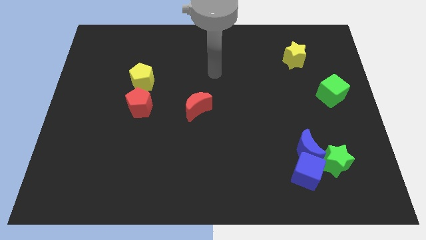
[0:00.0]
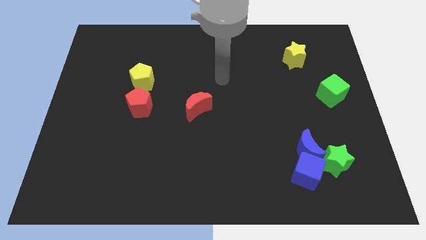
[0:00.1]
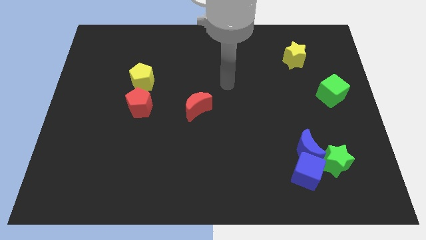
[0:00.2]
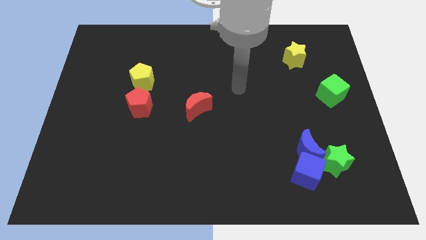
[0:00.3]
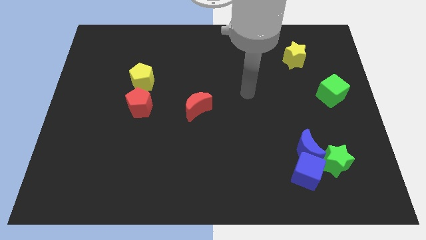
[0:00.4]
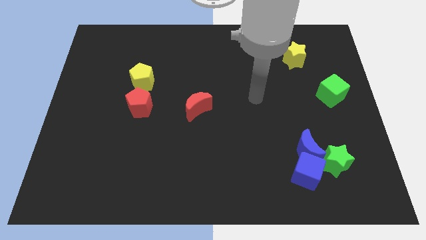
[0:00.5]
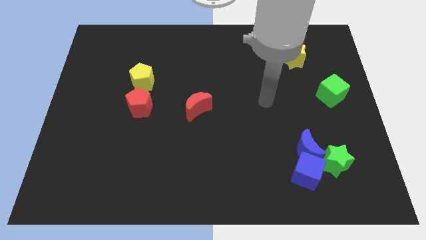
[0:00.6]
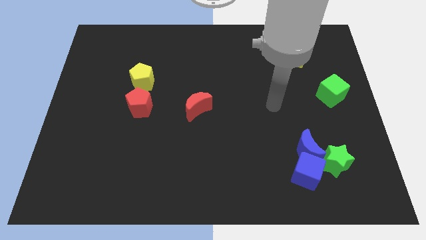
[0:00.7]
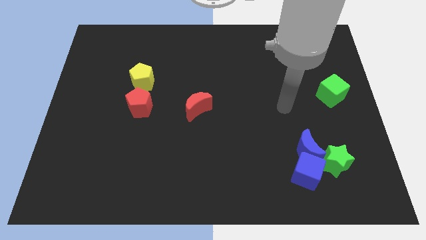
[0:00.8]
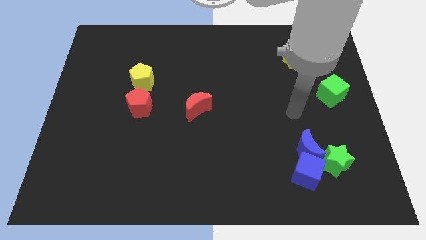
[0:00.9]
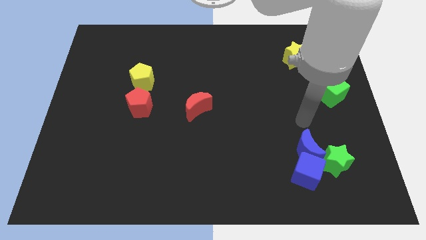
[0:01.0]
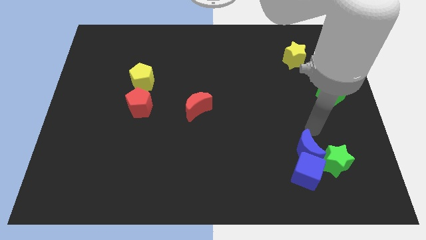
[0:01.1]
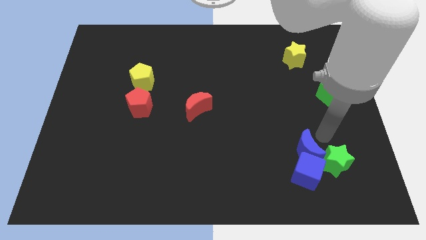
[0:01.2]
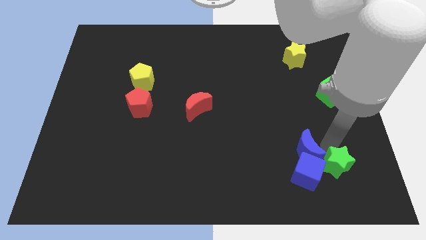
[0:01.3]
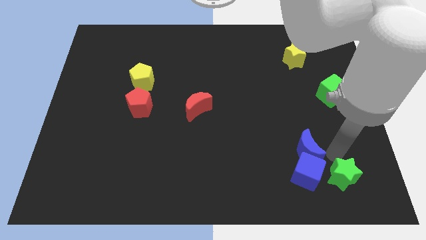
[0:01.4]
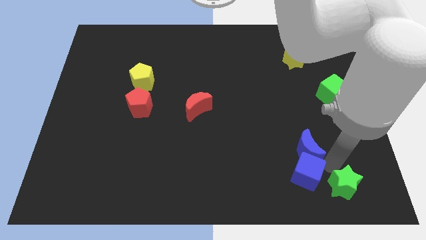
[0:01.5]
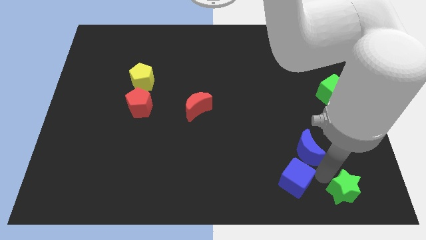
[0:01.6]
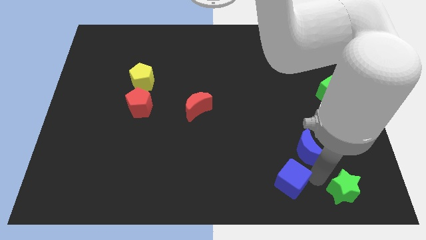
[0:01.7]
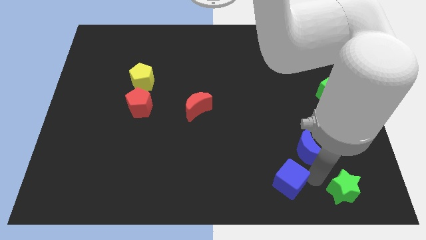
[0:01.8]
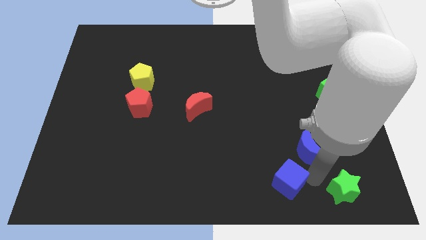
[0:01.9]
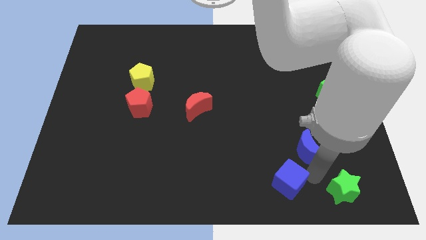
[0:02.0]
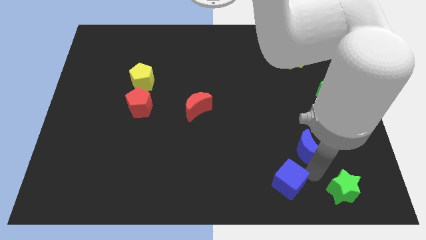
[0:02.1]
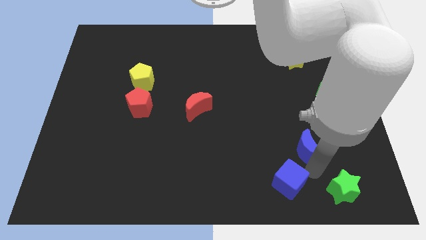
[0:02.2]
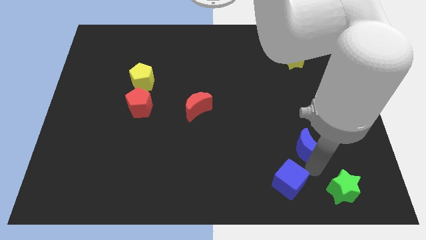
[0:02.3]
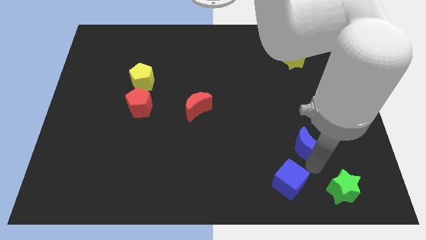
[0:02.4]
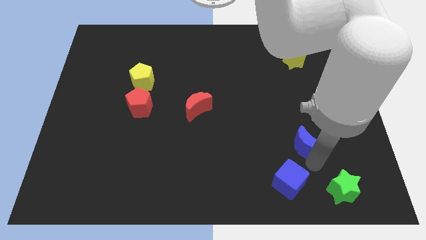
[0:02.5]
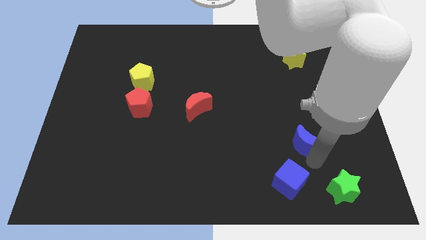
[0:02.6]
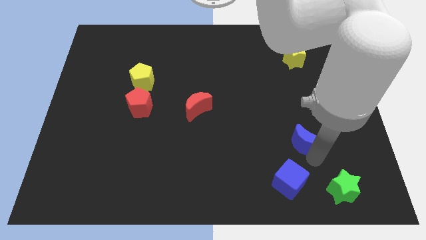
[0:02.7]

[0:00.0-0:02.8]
move the blue moon away from the blue cube and green star

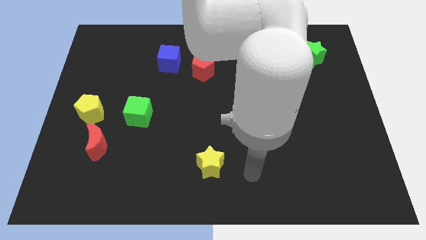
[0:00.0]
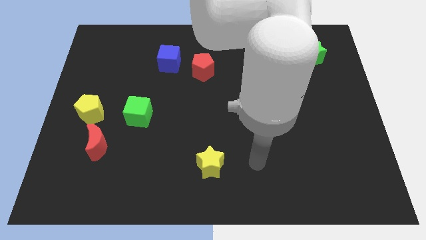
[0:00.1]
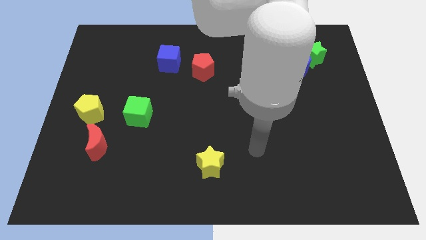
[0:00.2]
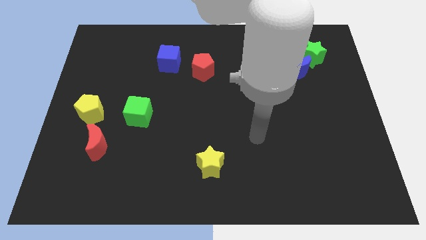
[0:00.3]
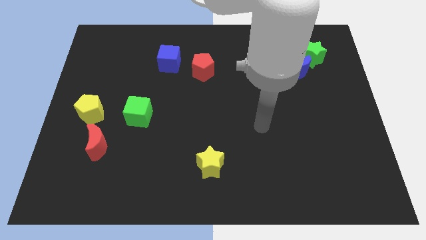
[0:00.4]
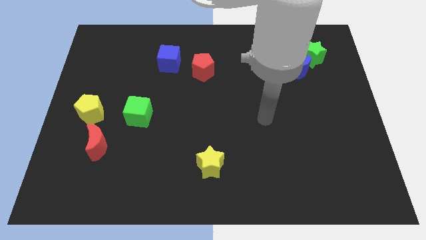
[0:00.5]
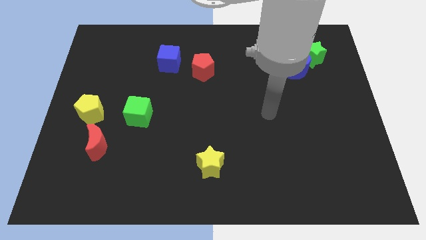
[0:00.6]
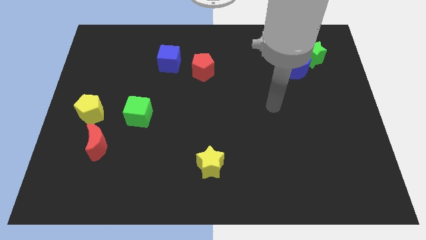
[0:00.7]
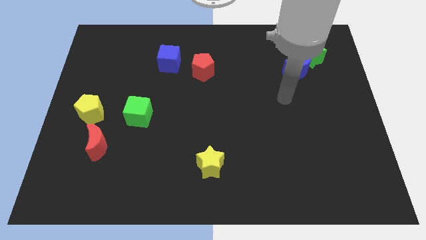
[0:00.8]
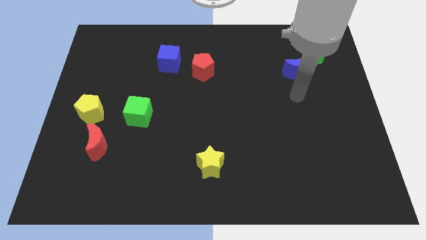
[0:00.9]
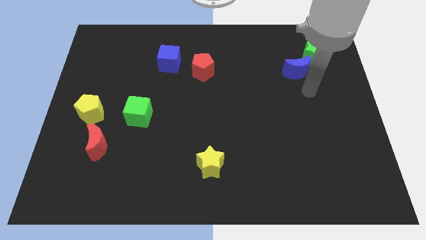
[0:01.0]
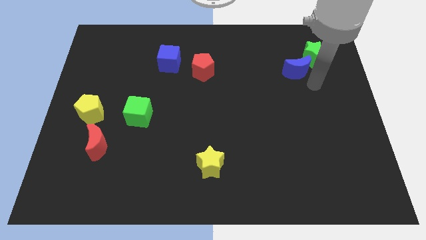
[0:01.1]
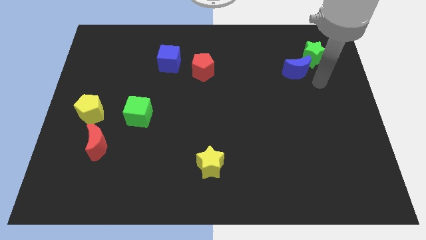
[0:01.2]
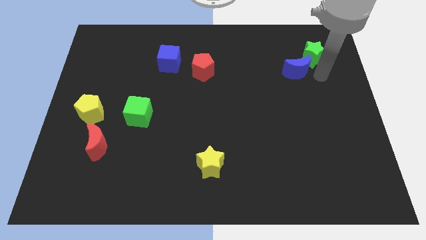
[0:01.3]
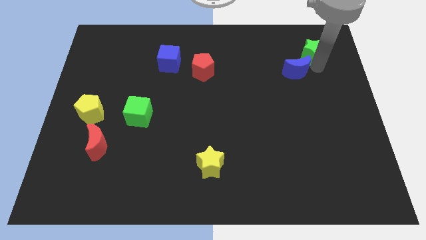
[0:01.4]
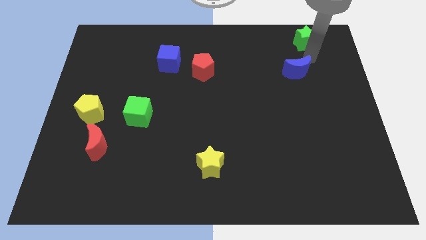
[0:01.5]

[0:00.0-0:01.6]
move the blue moon away from the green star

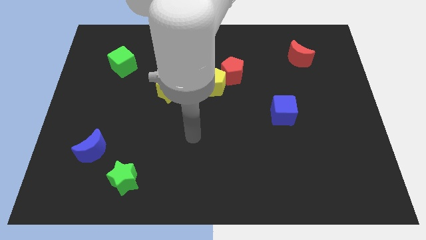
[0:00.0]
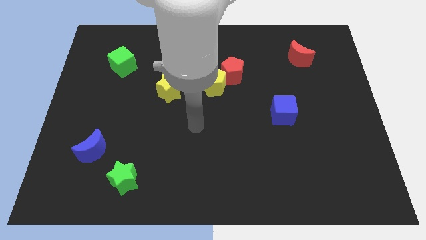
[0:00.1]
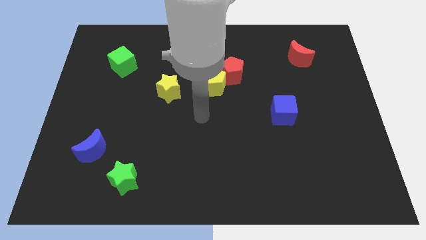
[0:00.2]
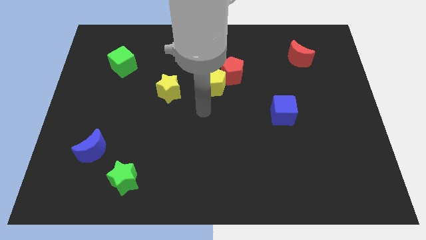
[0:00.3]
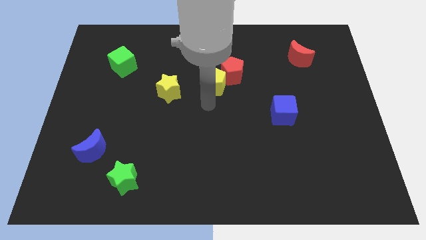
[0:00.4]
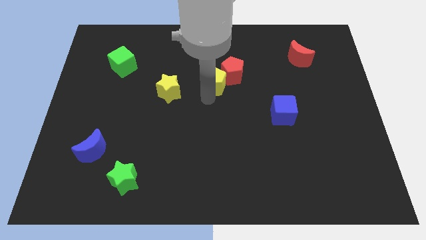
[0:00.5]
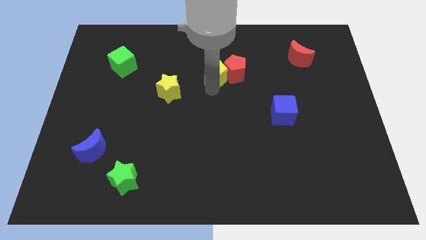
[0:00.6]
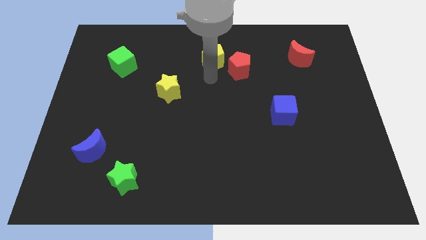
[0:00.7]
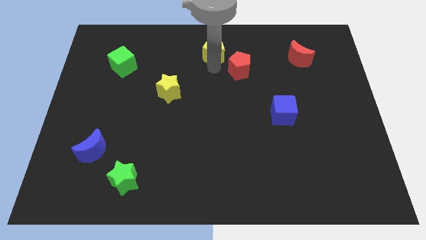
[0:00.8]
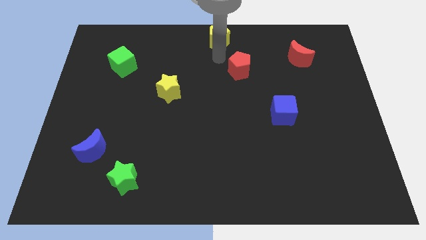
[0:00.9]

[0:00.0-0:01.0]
separate the red pentagon from the yellow pentagon

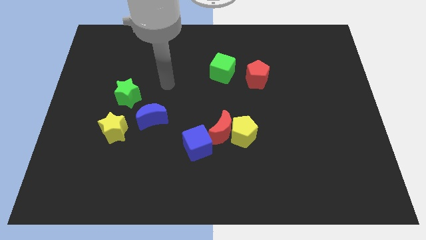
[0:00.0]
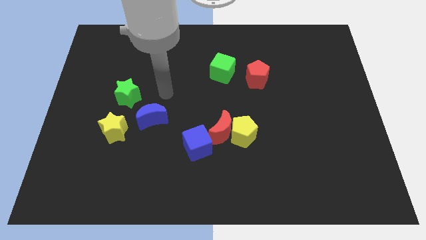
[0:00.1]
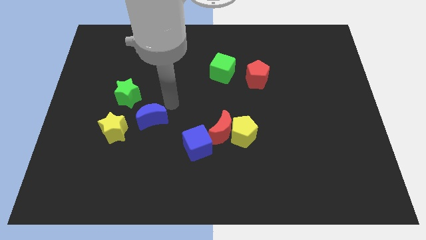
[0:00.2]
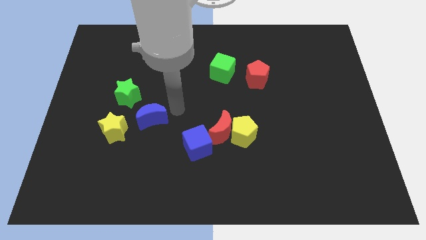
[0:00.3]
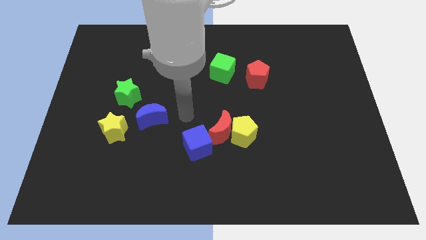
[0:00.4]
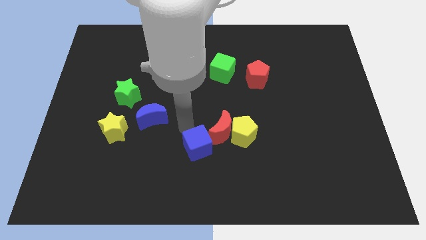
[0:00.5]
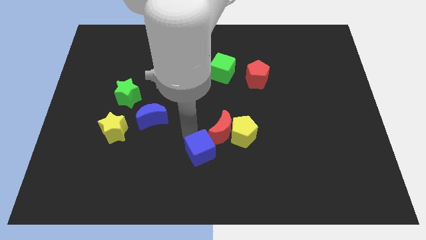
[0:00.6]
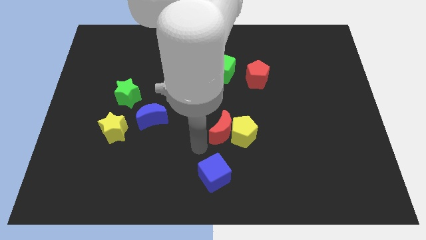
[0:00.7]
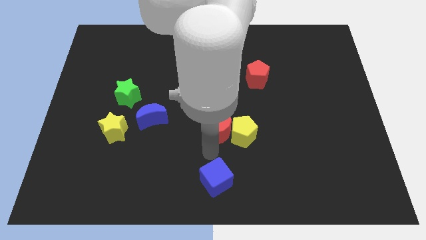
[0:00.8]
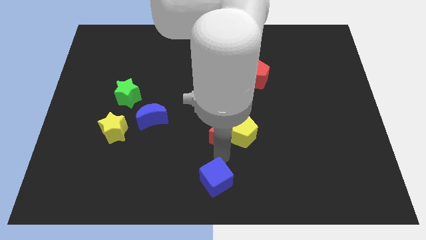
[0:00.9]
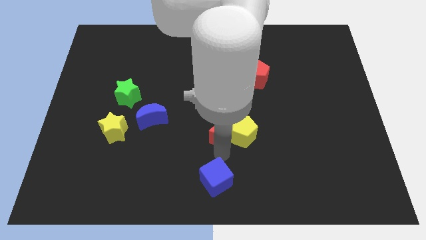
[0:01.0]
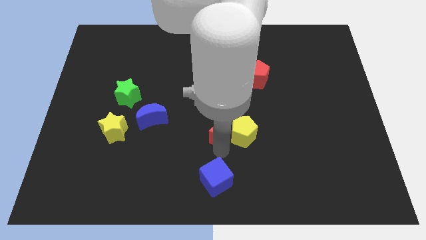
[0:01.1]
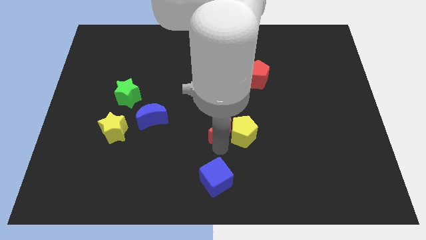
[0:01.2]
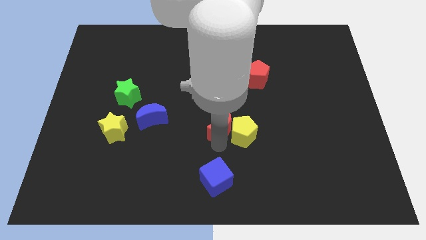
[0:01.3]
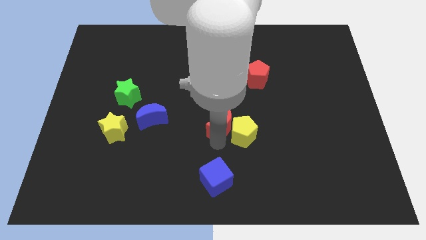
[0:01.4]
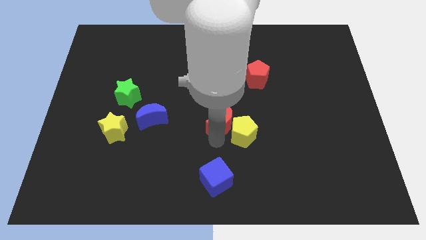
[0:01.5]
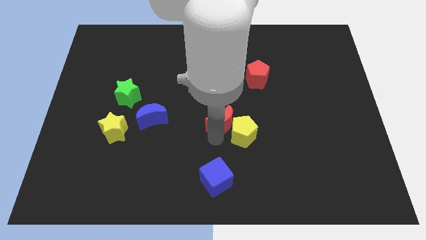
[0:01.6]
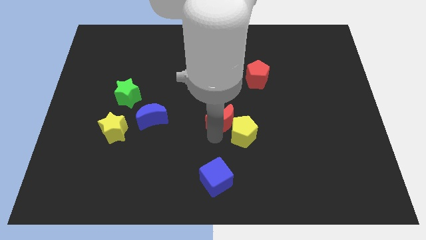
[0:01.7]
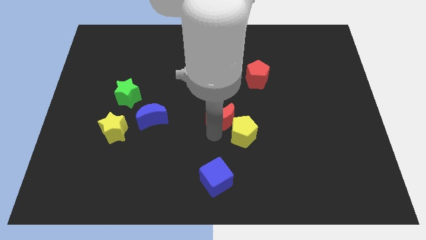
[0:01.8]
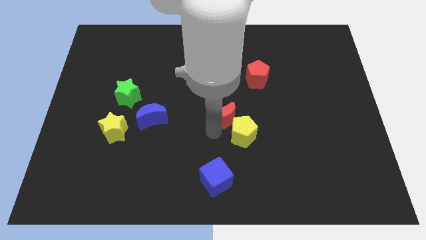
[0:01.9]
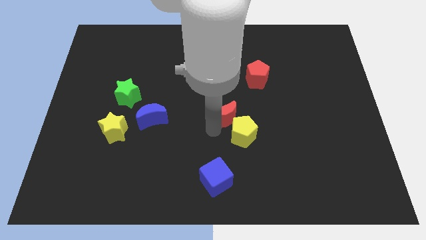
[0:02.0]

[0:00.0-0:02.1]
separate the red moon from the yellow pentagon and blue cube

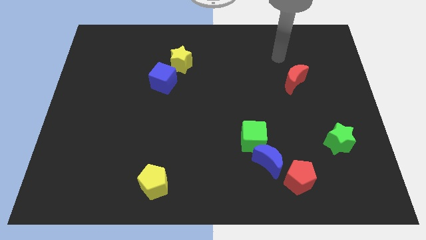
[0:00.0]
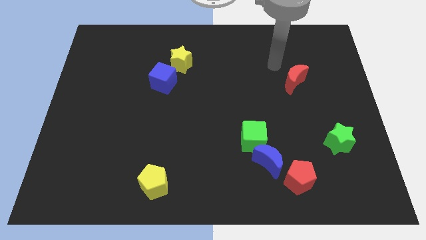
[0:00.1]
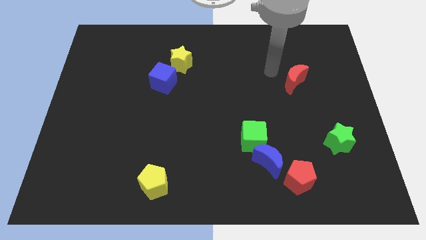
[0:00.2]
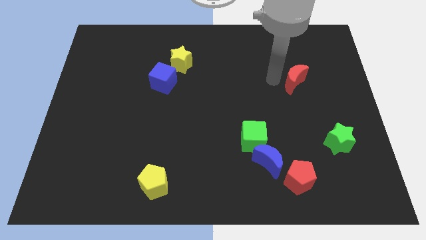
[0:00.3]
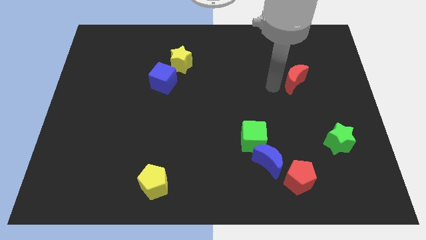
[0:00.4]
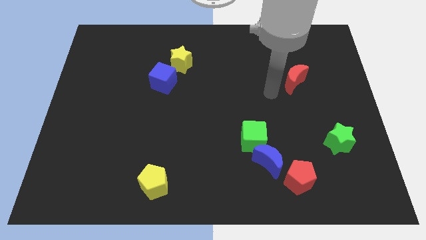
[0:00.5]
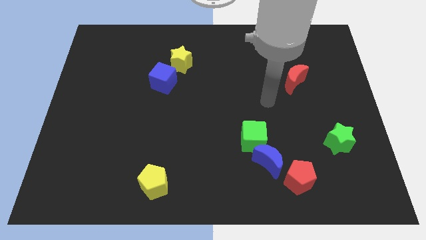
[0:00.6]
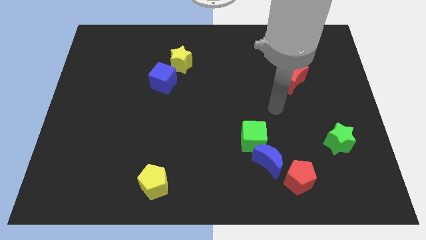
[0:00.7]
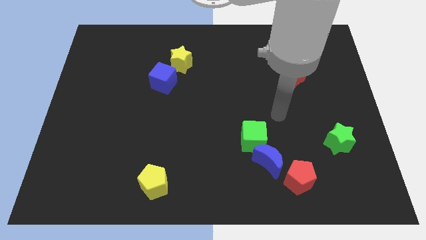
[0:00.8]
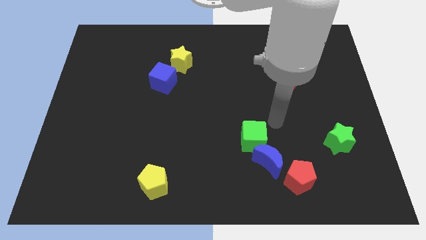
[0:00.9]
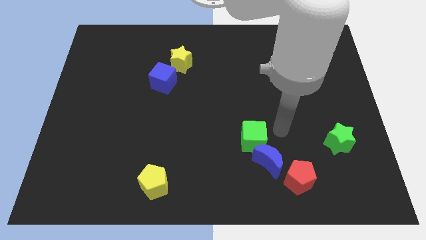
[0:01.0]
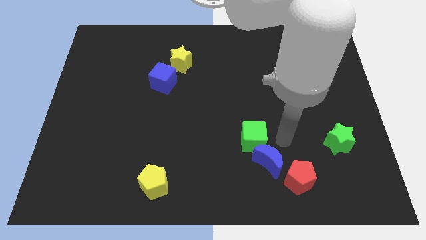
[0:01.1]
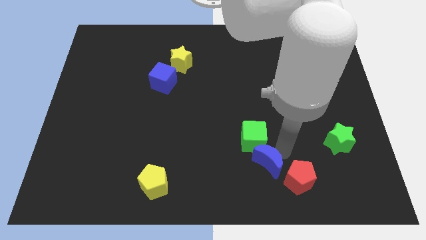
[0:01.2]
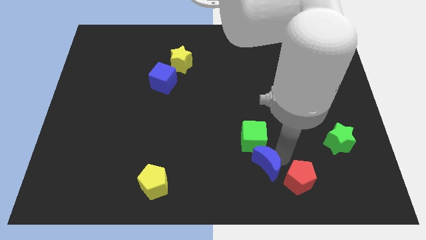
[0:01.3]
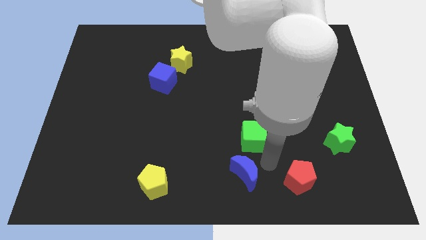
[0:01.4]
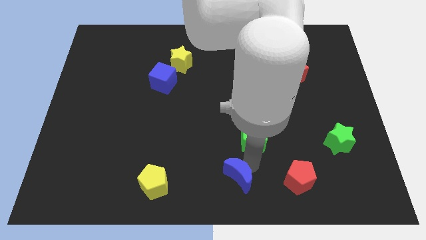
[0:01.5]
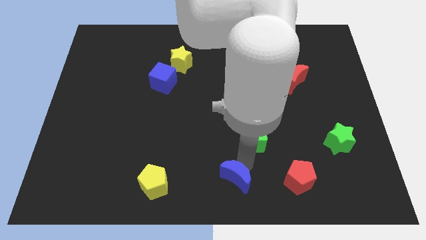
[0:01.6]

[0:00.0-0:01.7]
pull the green cube apart from the blue moon

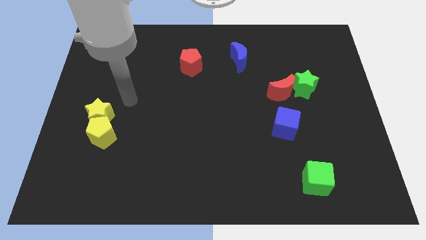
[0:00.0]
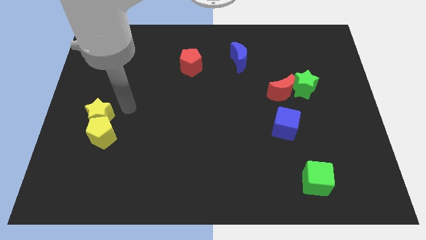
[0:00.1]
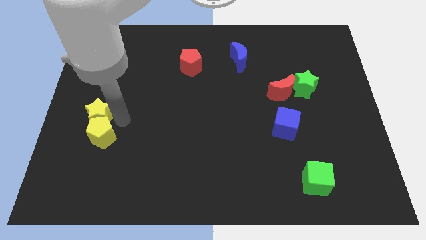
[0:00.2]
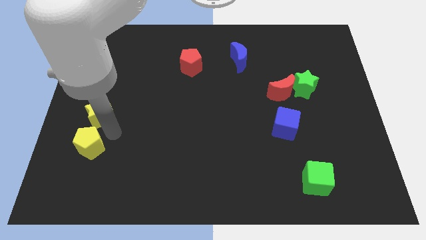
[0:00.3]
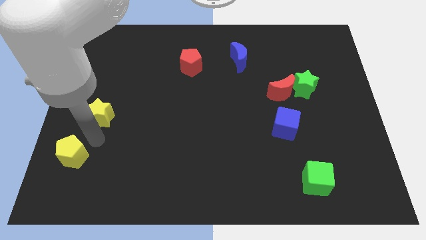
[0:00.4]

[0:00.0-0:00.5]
separate the yellow star from the yellow pentagon
